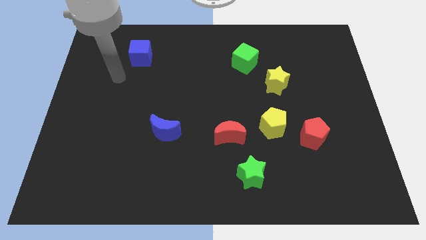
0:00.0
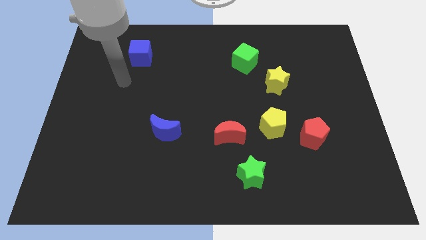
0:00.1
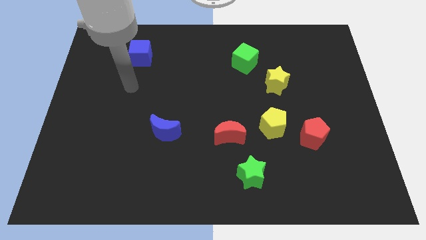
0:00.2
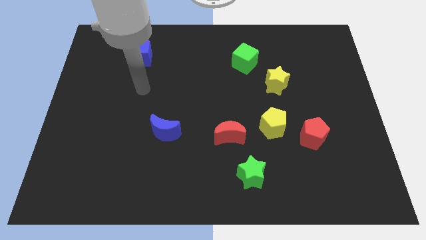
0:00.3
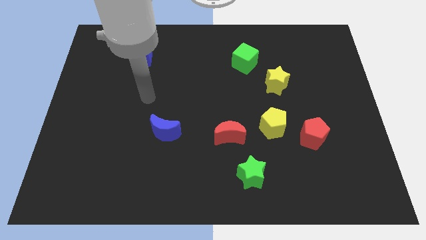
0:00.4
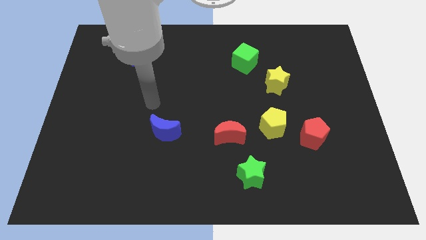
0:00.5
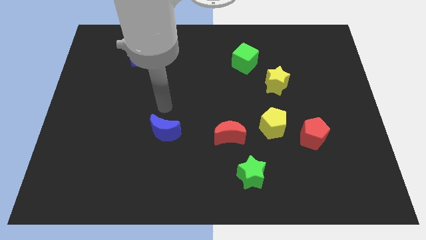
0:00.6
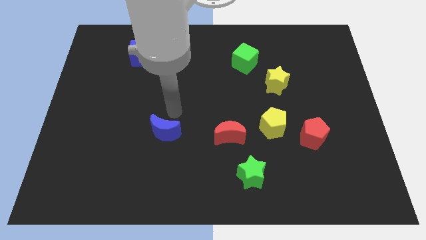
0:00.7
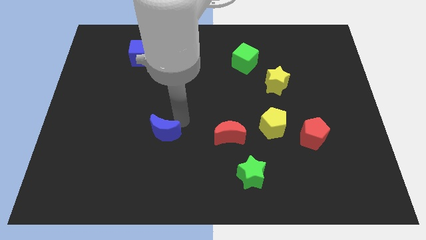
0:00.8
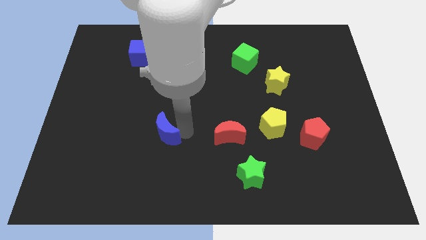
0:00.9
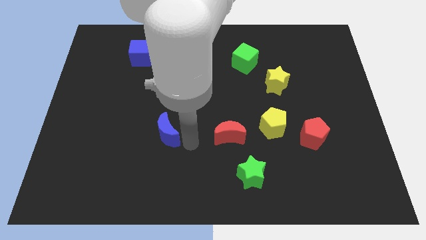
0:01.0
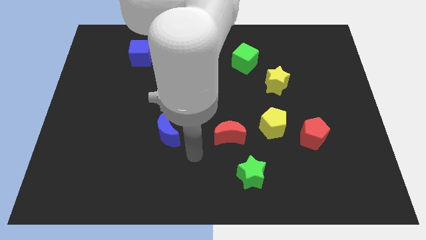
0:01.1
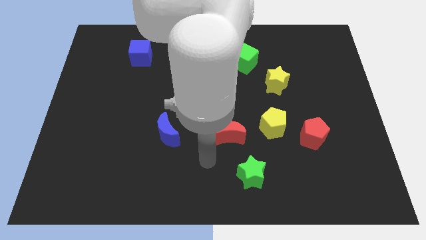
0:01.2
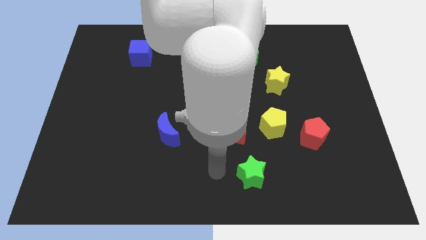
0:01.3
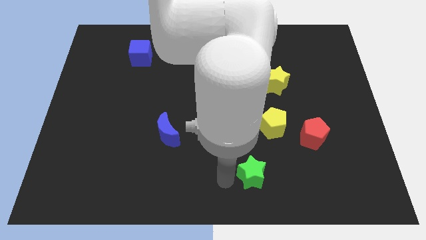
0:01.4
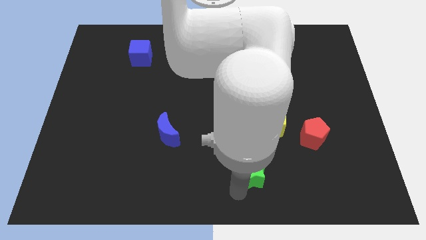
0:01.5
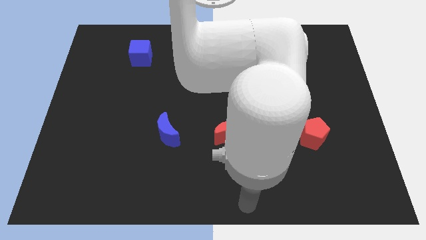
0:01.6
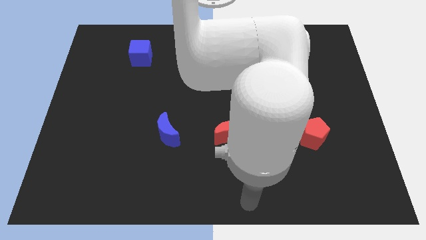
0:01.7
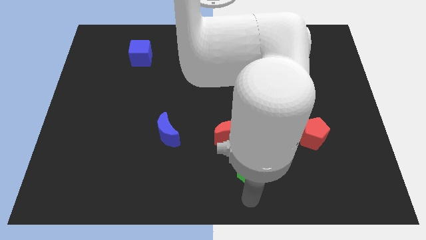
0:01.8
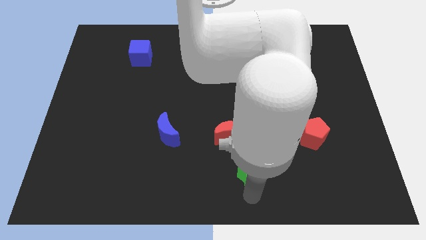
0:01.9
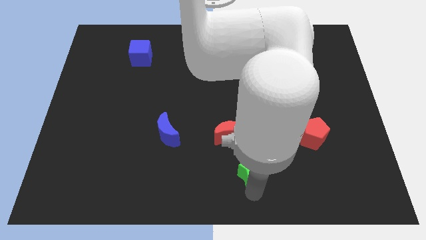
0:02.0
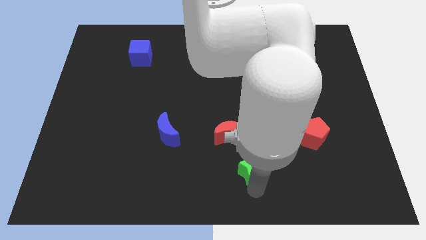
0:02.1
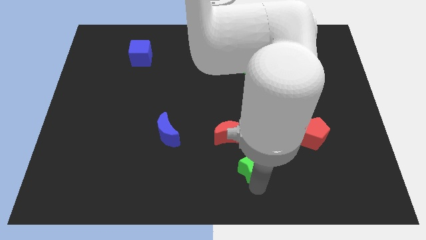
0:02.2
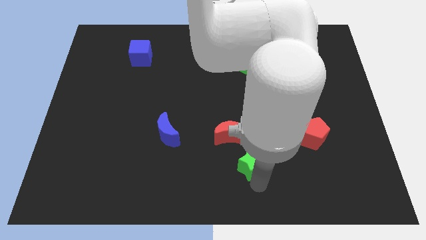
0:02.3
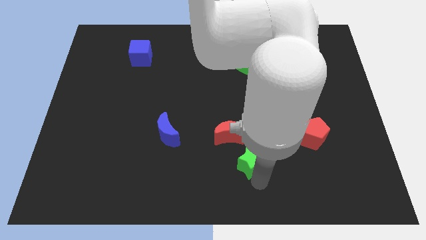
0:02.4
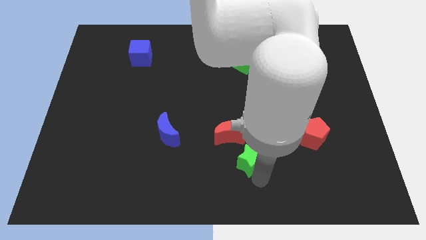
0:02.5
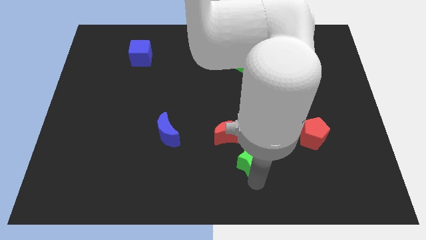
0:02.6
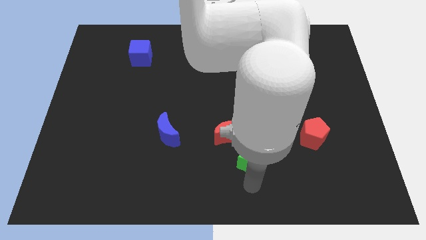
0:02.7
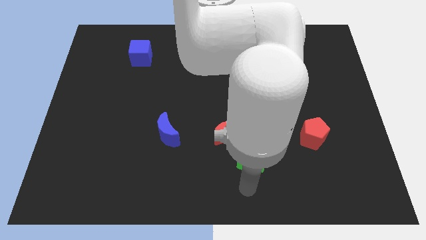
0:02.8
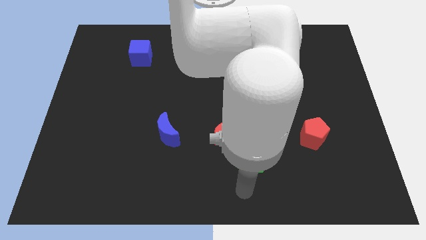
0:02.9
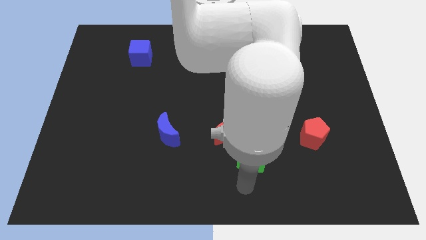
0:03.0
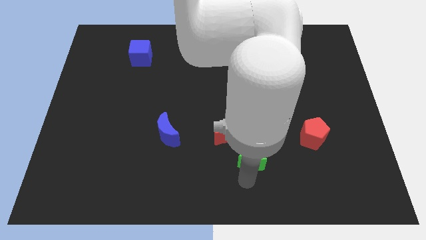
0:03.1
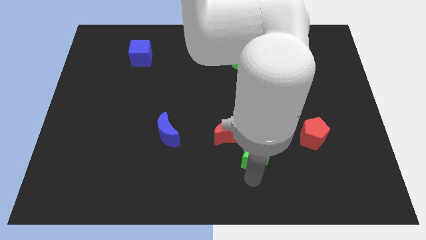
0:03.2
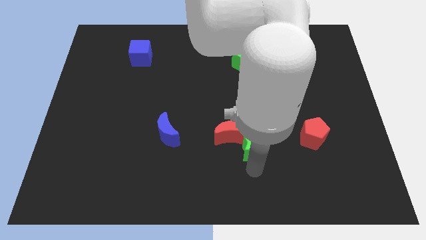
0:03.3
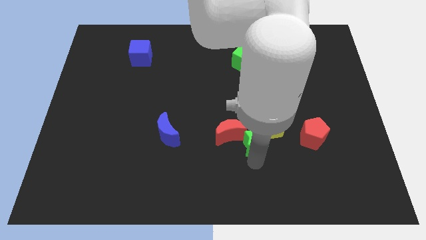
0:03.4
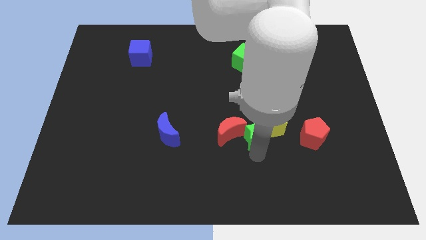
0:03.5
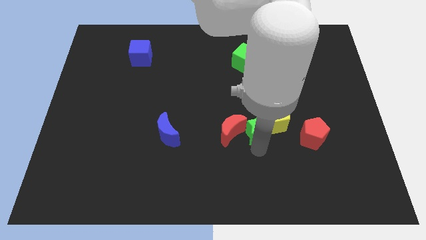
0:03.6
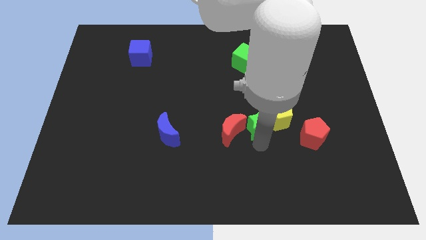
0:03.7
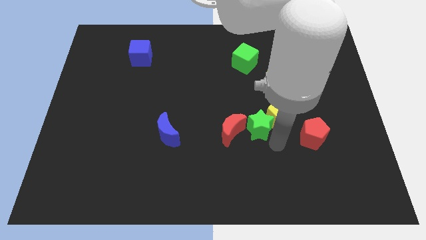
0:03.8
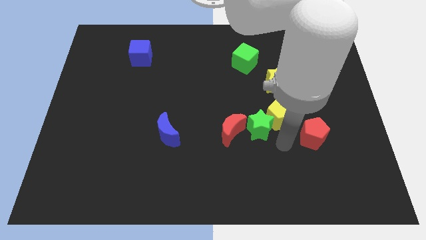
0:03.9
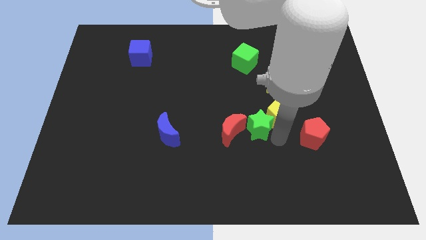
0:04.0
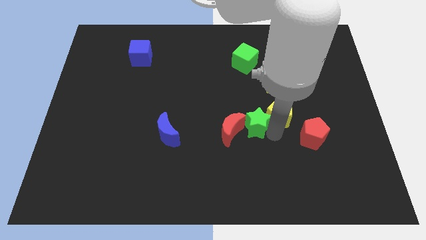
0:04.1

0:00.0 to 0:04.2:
put the green star to the middle of the board

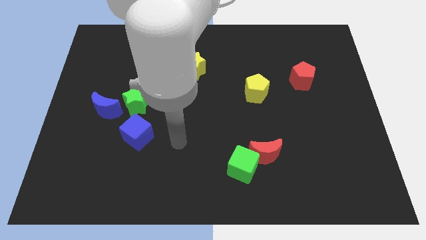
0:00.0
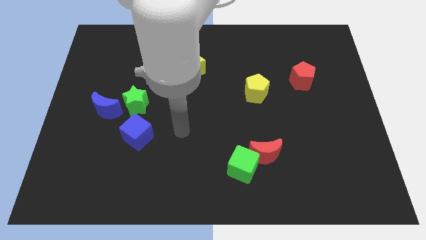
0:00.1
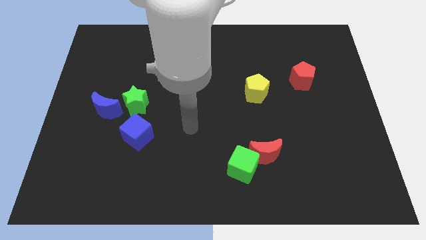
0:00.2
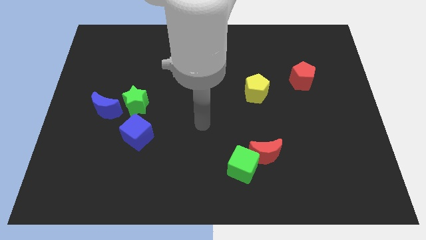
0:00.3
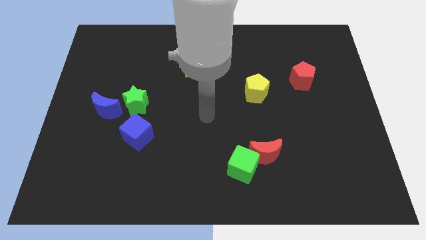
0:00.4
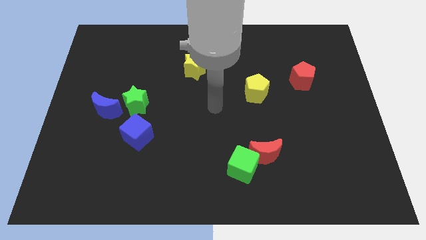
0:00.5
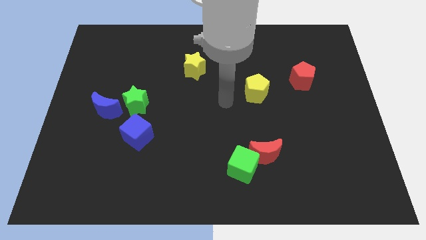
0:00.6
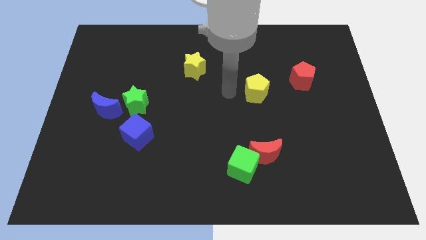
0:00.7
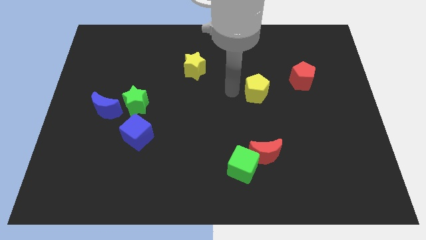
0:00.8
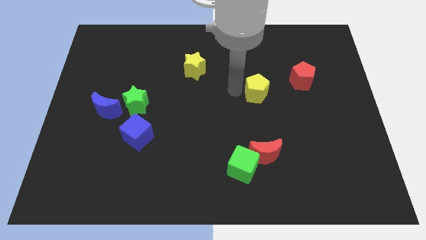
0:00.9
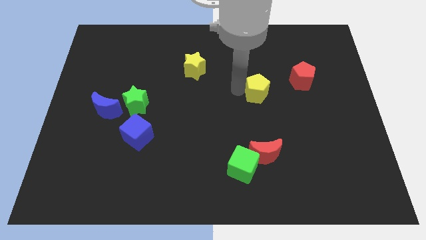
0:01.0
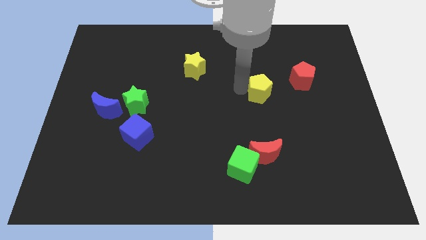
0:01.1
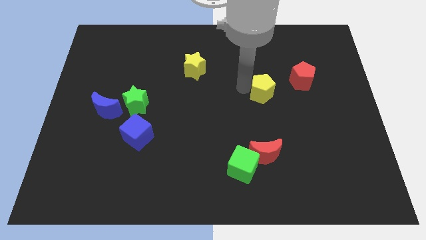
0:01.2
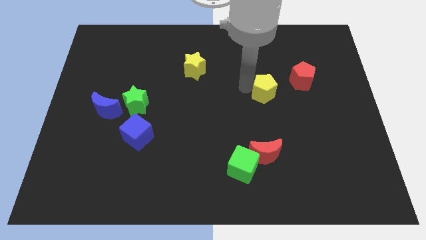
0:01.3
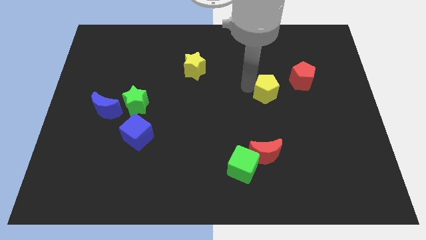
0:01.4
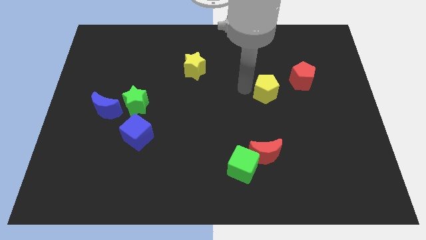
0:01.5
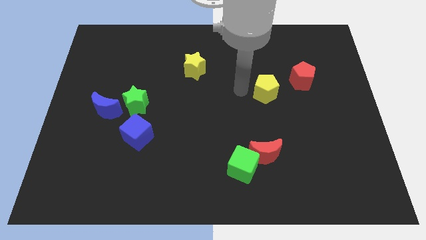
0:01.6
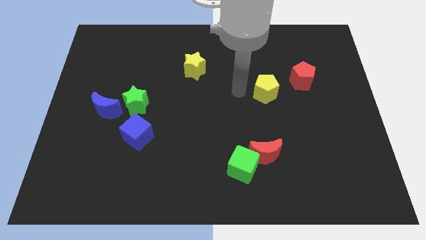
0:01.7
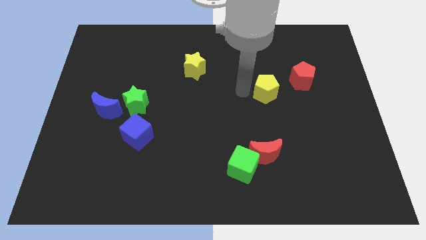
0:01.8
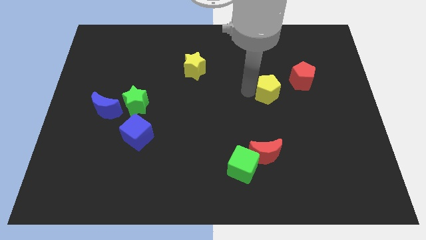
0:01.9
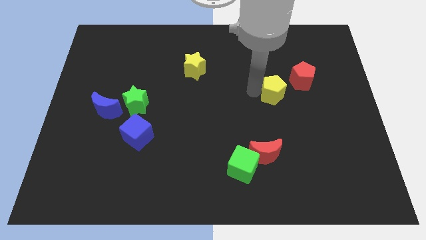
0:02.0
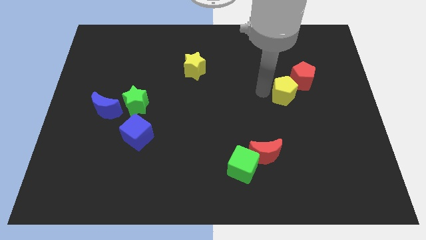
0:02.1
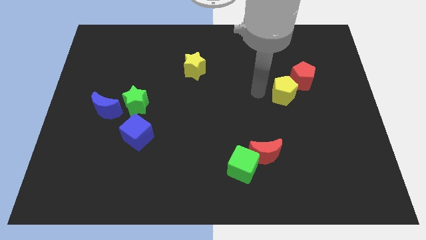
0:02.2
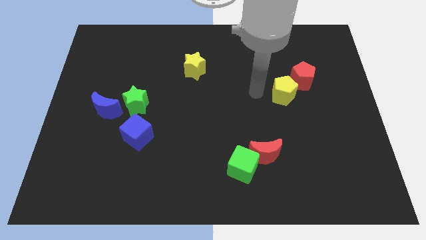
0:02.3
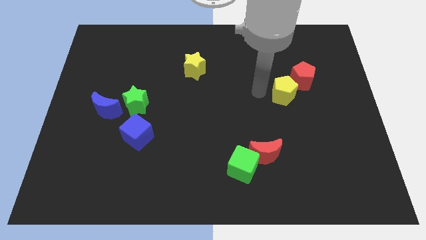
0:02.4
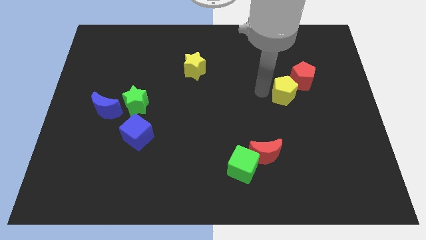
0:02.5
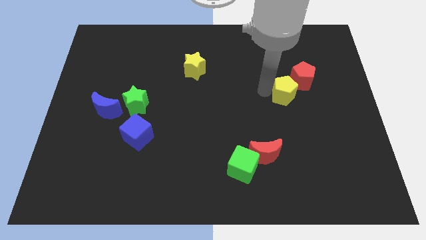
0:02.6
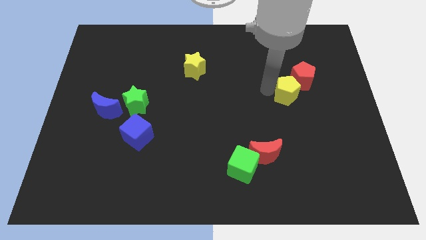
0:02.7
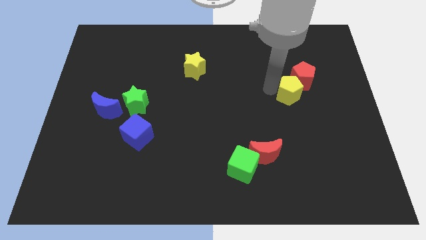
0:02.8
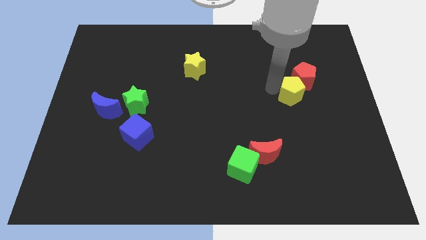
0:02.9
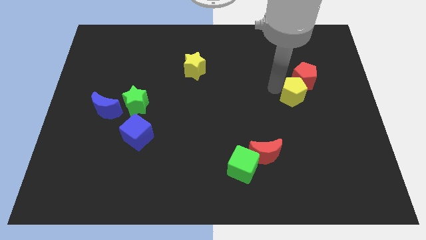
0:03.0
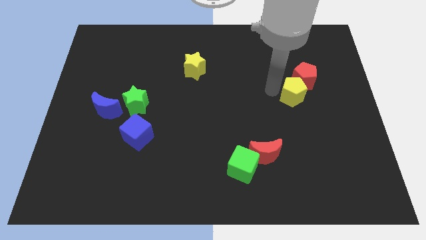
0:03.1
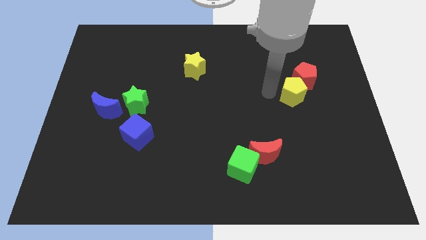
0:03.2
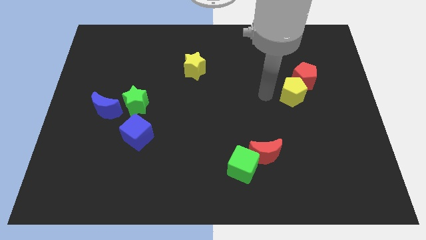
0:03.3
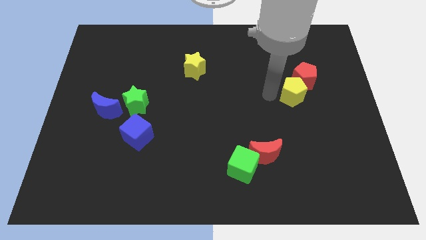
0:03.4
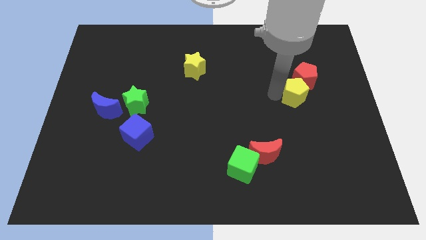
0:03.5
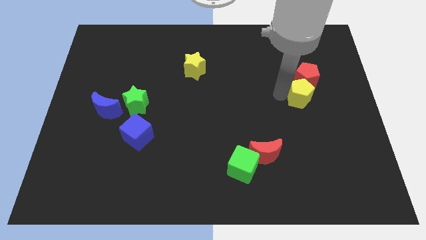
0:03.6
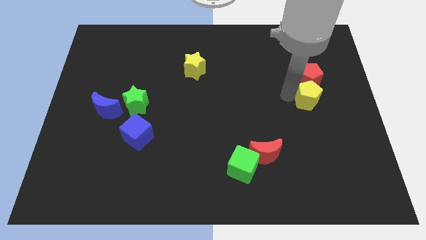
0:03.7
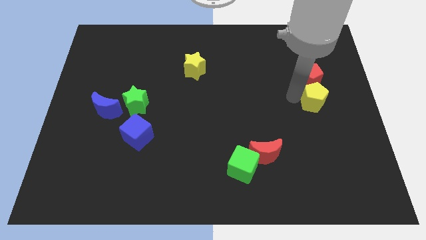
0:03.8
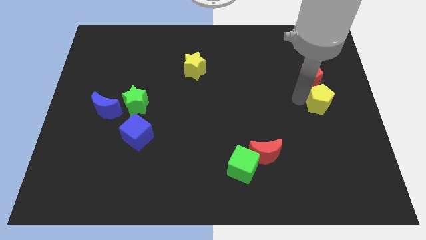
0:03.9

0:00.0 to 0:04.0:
move the yellow pentagon to the right side

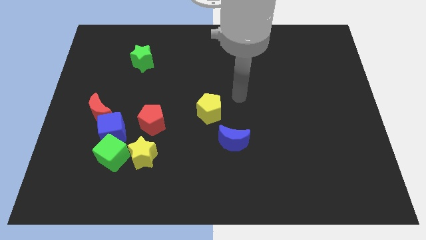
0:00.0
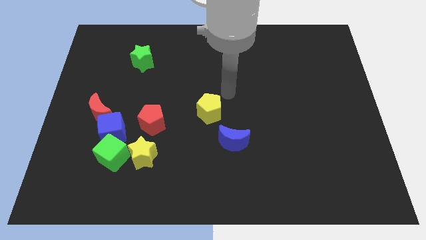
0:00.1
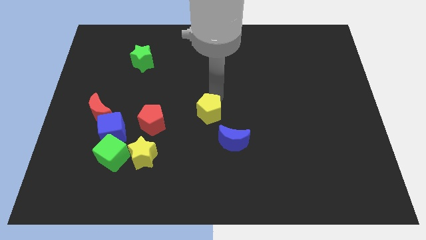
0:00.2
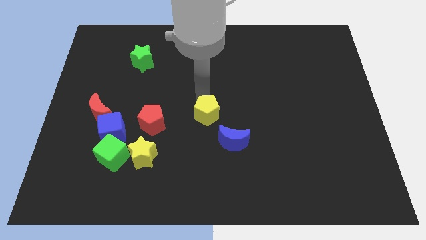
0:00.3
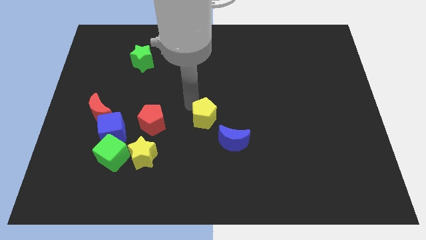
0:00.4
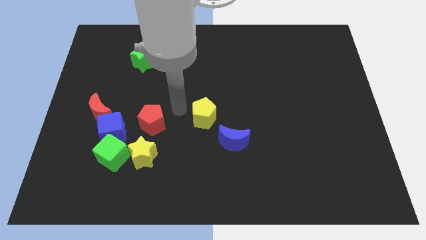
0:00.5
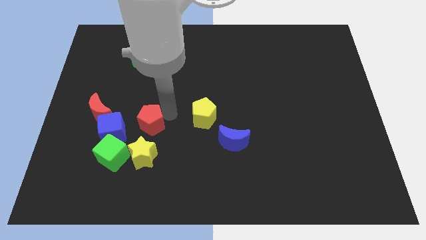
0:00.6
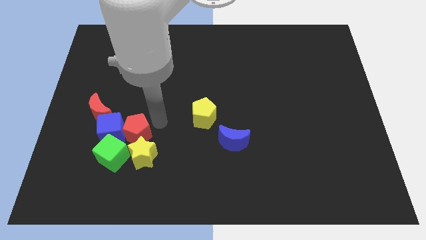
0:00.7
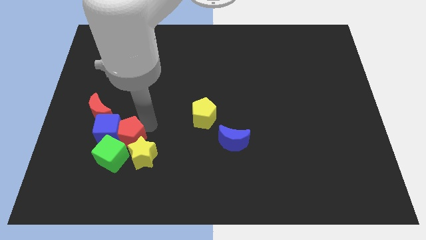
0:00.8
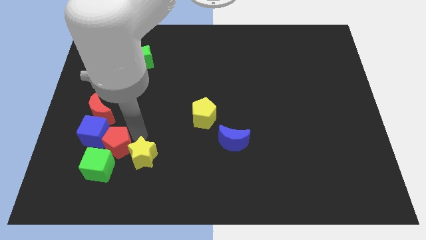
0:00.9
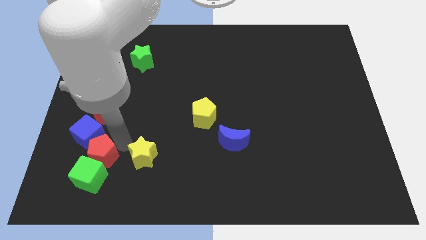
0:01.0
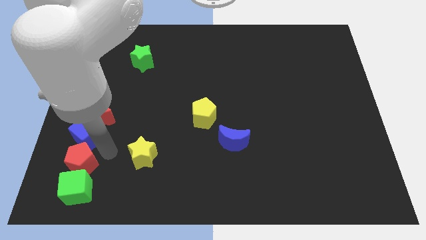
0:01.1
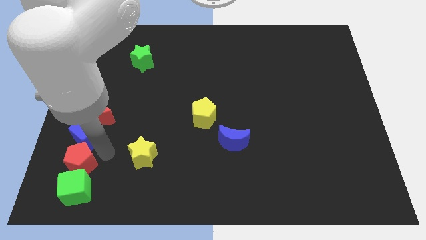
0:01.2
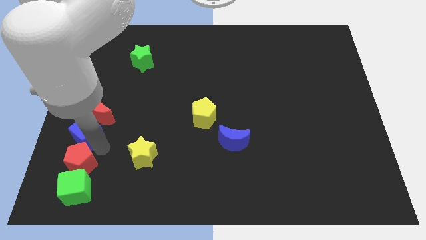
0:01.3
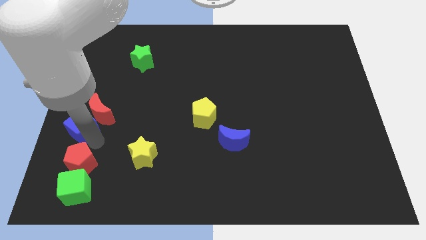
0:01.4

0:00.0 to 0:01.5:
slide the blue cube to the left side of the board
